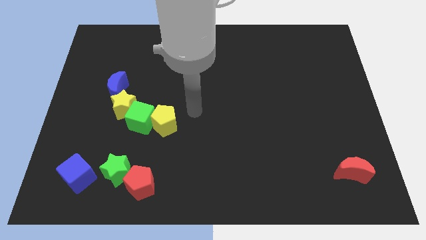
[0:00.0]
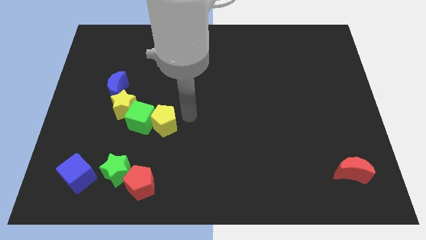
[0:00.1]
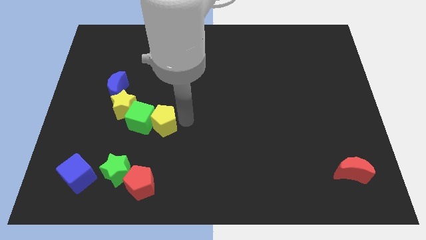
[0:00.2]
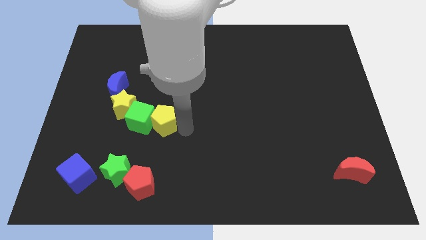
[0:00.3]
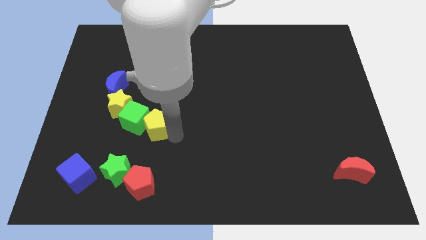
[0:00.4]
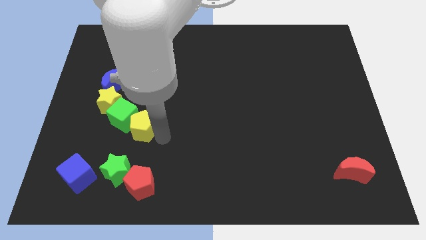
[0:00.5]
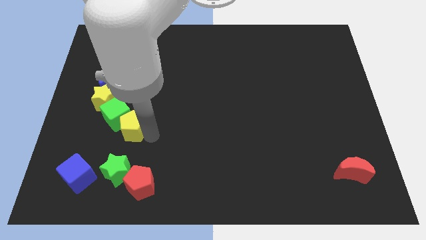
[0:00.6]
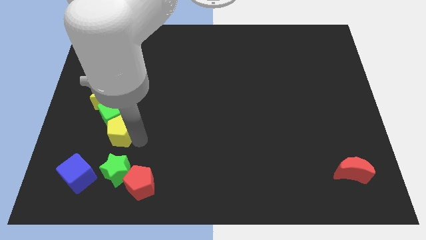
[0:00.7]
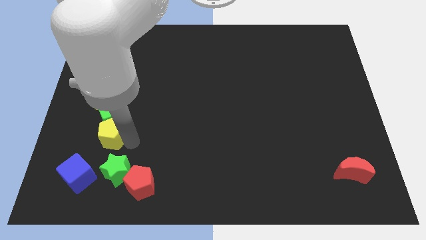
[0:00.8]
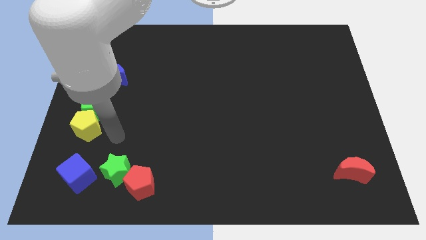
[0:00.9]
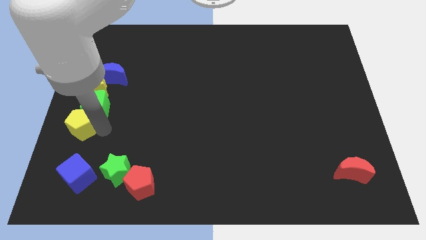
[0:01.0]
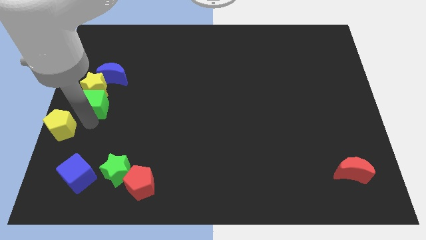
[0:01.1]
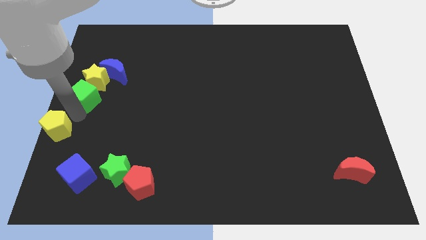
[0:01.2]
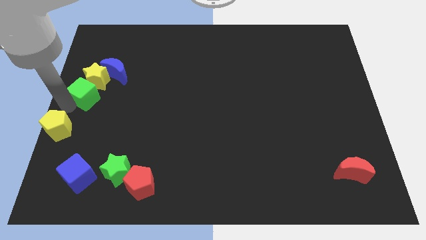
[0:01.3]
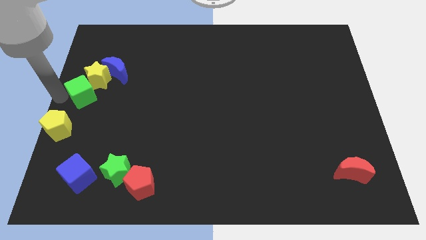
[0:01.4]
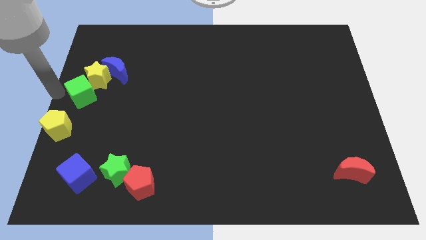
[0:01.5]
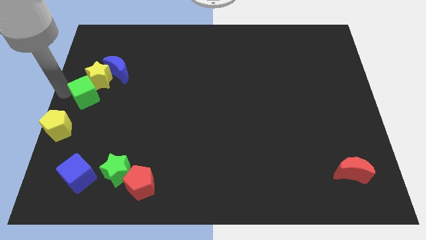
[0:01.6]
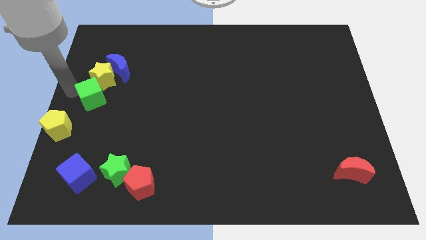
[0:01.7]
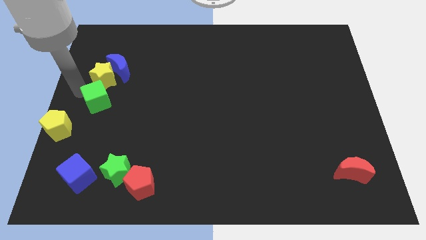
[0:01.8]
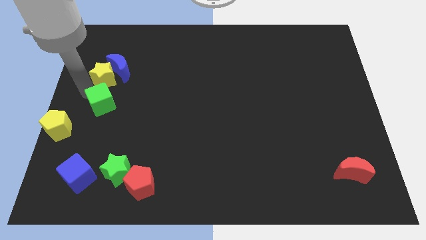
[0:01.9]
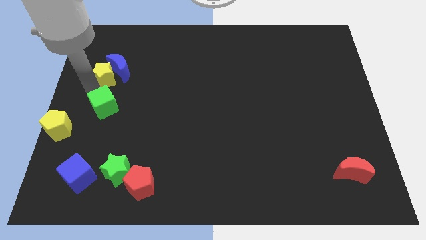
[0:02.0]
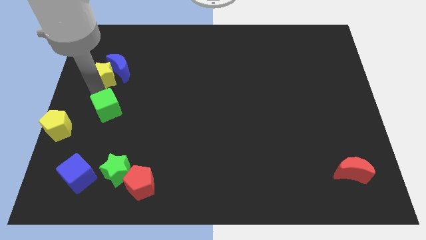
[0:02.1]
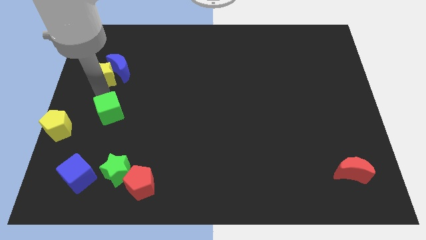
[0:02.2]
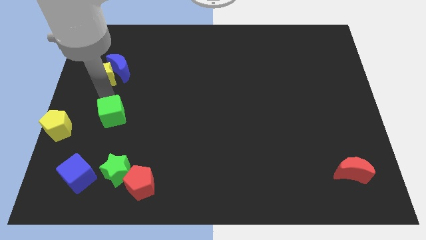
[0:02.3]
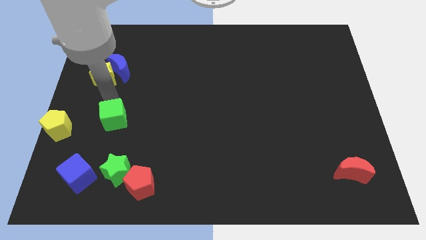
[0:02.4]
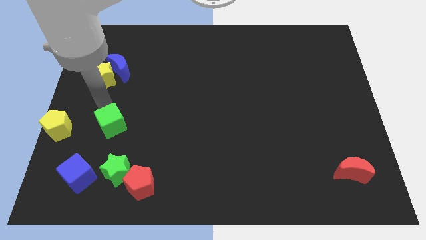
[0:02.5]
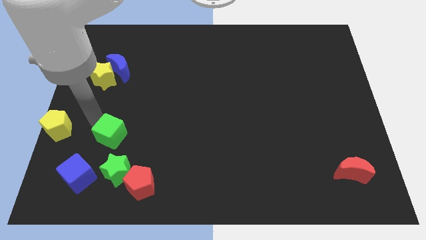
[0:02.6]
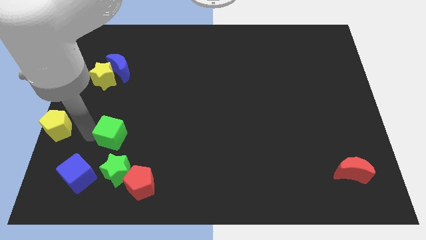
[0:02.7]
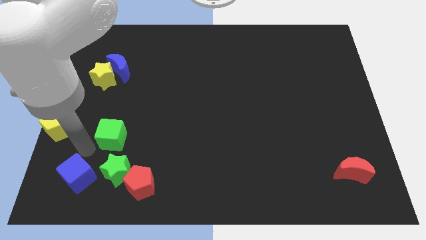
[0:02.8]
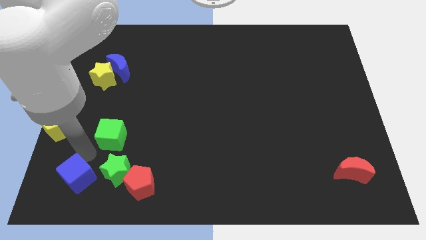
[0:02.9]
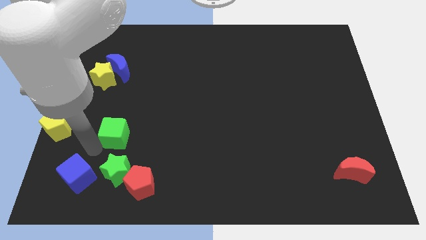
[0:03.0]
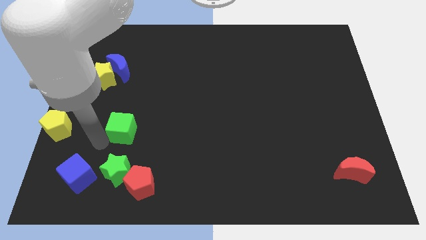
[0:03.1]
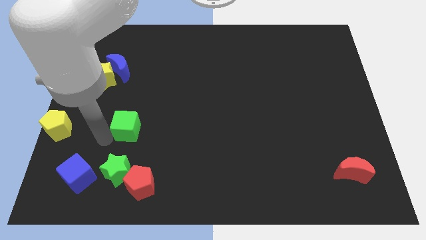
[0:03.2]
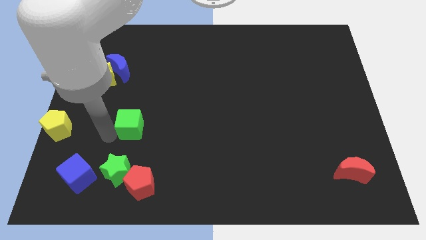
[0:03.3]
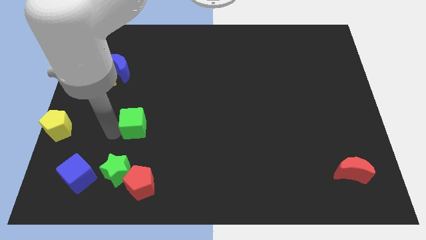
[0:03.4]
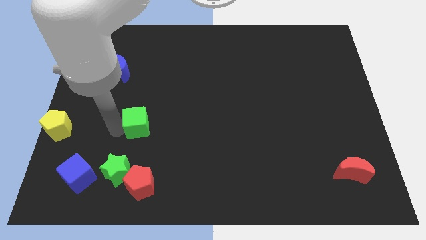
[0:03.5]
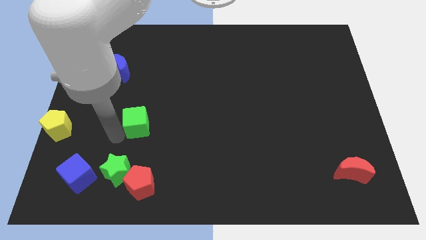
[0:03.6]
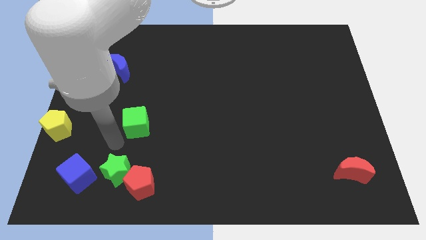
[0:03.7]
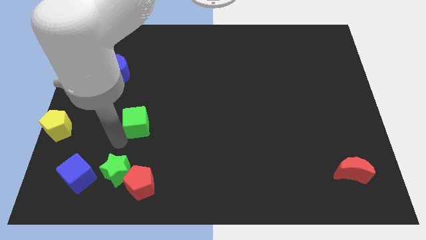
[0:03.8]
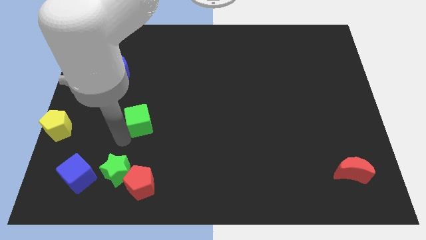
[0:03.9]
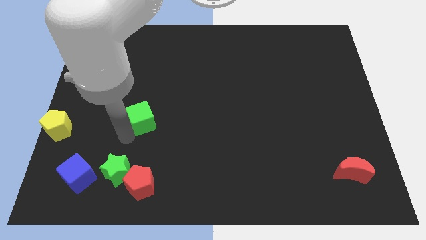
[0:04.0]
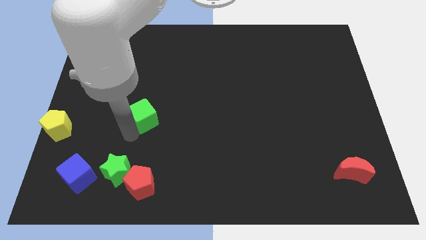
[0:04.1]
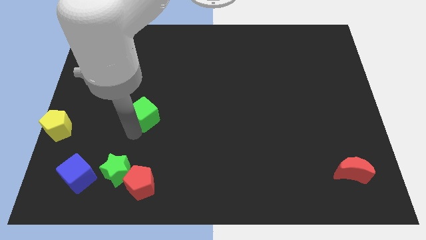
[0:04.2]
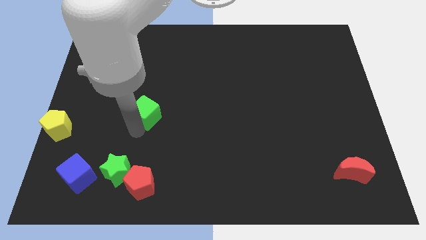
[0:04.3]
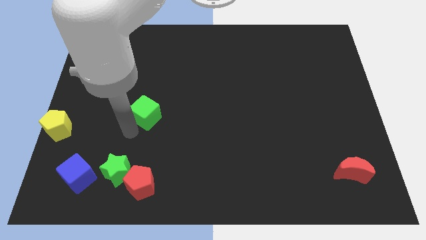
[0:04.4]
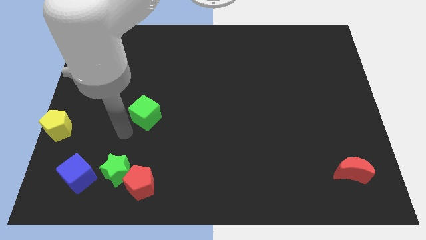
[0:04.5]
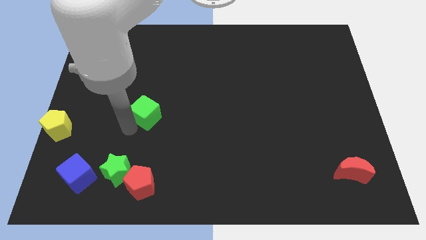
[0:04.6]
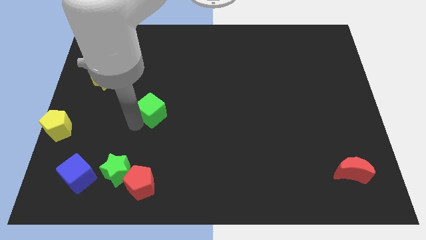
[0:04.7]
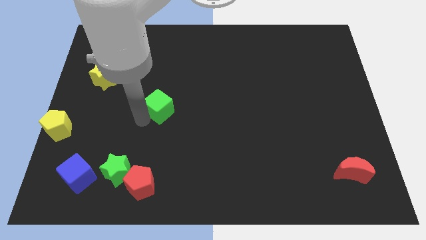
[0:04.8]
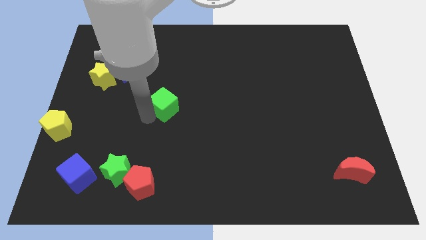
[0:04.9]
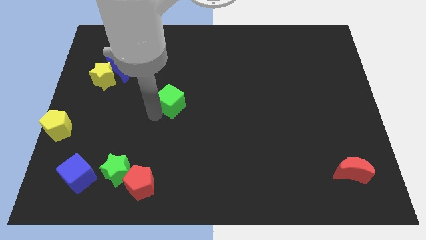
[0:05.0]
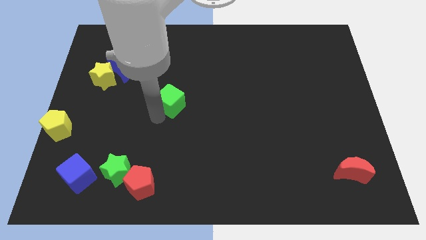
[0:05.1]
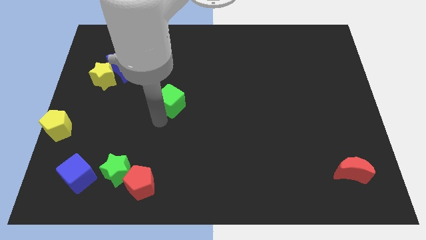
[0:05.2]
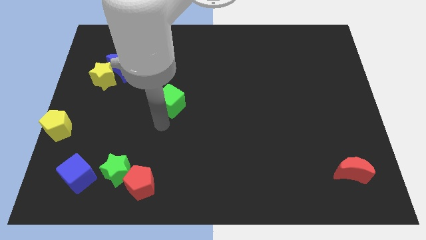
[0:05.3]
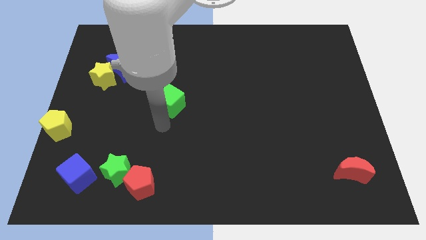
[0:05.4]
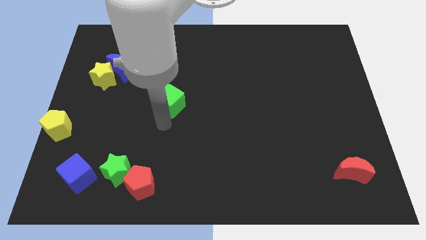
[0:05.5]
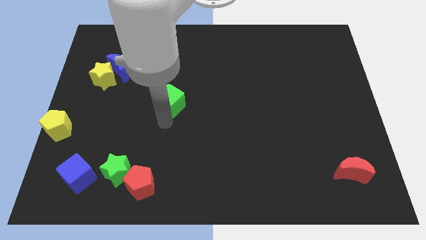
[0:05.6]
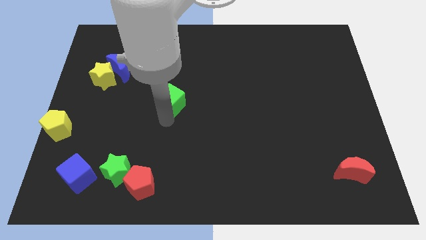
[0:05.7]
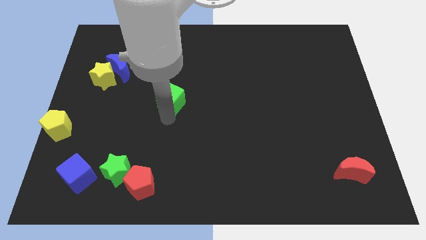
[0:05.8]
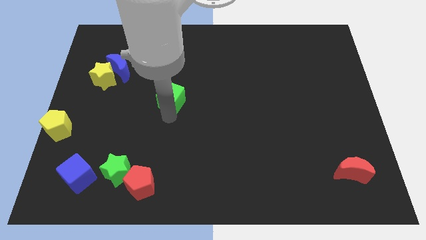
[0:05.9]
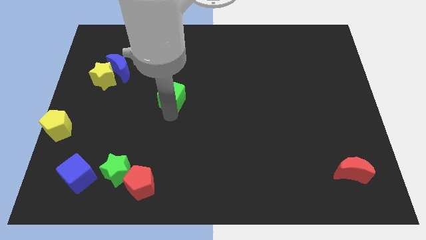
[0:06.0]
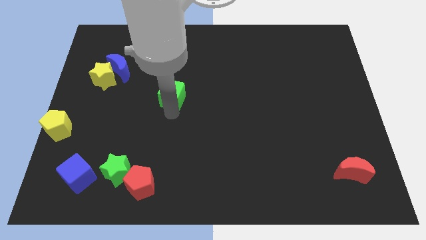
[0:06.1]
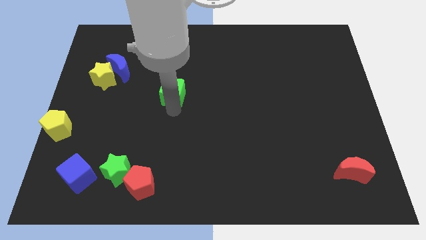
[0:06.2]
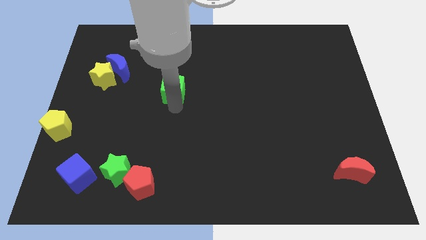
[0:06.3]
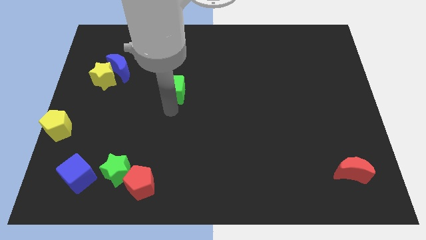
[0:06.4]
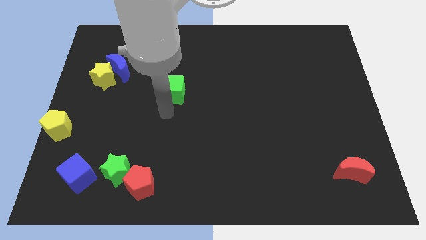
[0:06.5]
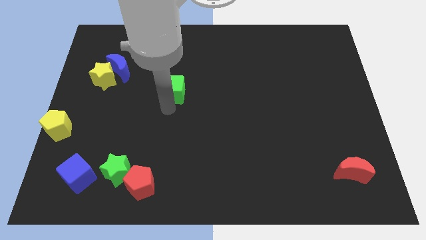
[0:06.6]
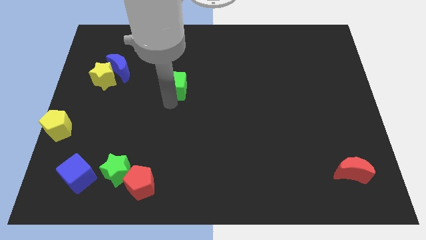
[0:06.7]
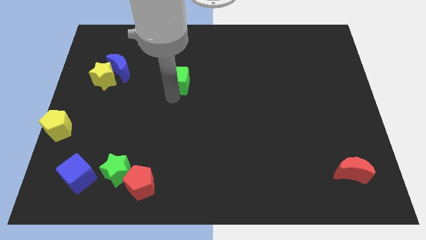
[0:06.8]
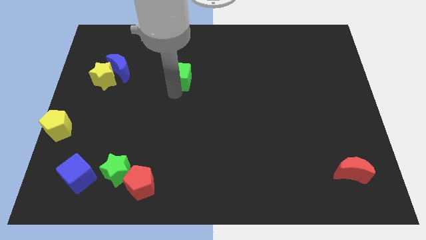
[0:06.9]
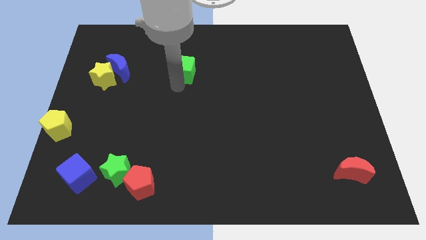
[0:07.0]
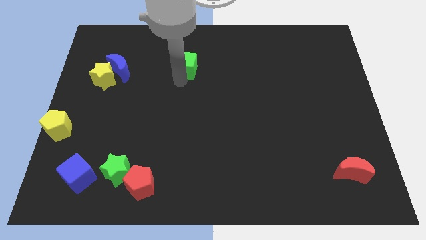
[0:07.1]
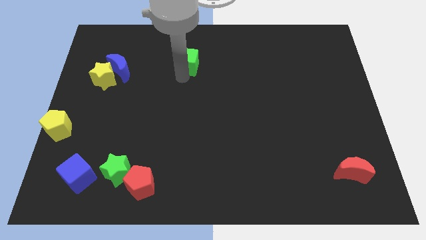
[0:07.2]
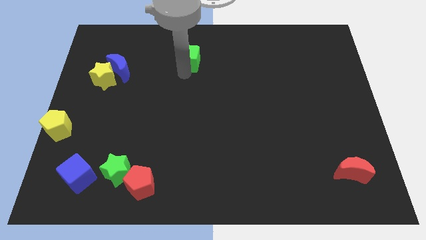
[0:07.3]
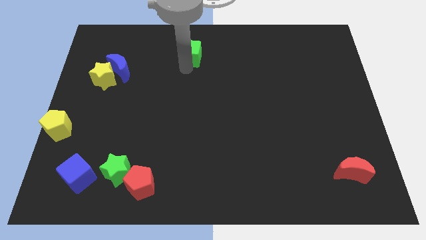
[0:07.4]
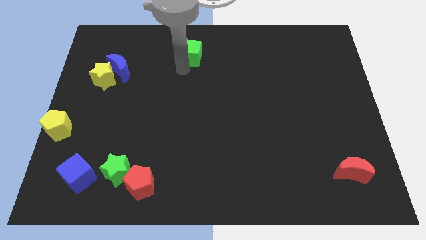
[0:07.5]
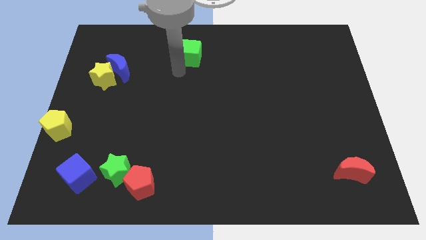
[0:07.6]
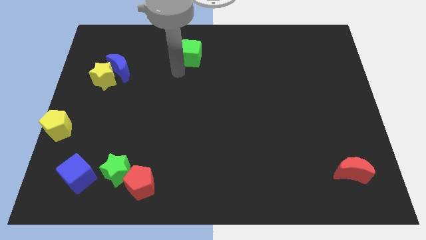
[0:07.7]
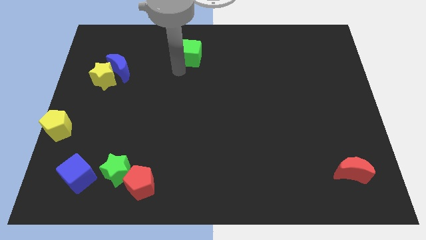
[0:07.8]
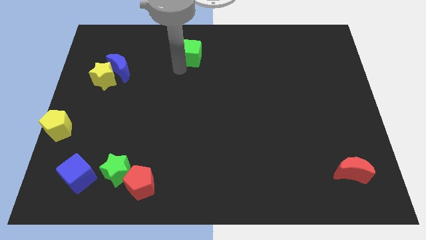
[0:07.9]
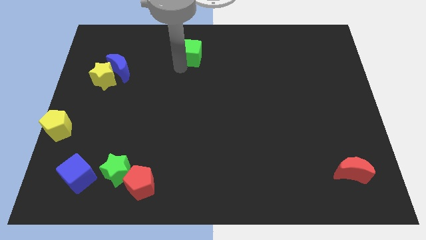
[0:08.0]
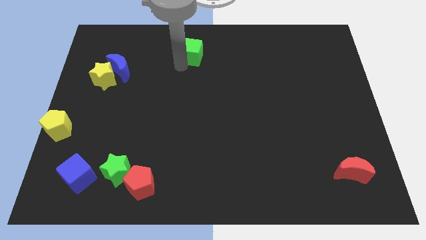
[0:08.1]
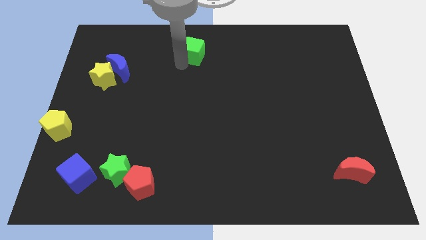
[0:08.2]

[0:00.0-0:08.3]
slide the green cube to the top side
